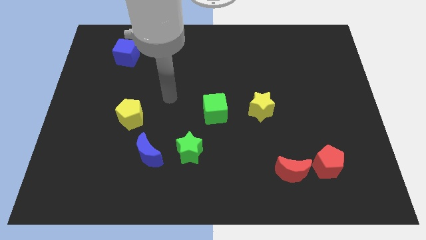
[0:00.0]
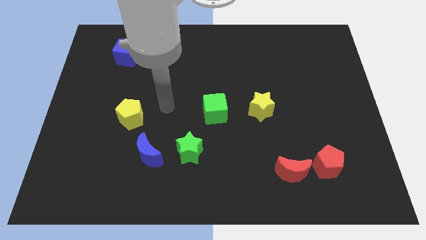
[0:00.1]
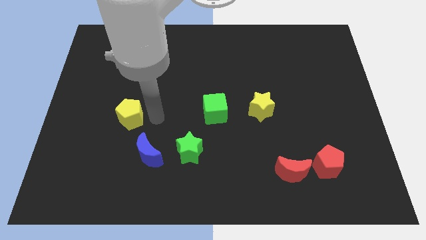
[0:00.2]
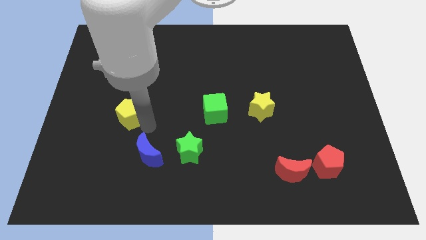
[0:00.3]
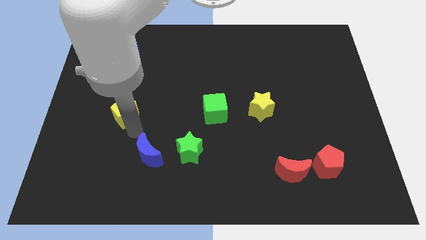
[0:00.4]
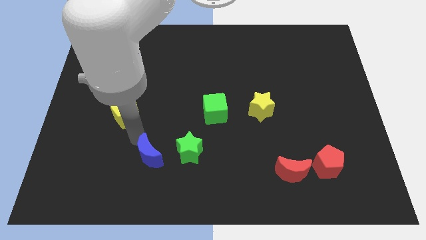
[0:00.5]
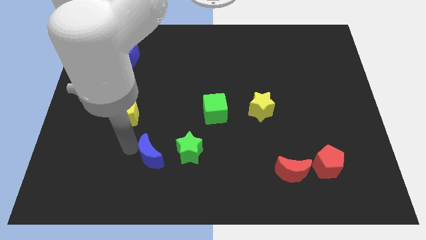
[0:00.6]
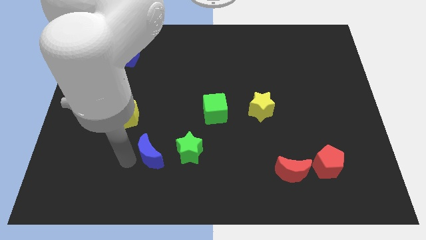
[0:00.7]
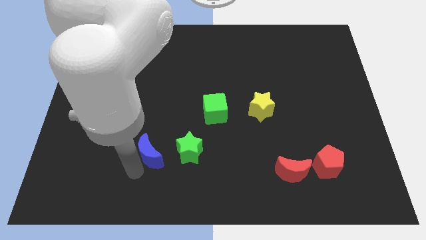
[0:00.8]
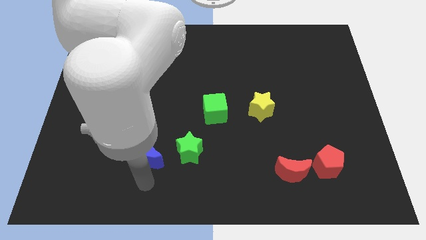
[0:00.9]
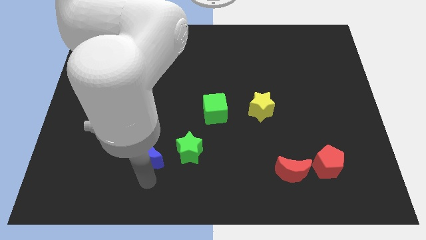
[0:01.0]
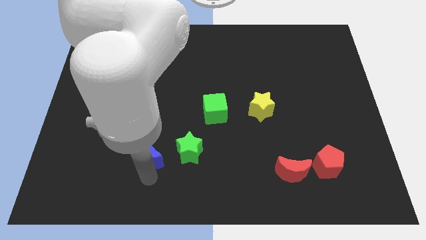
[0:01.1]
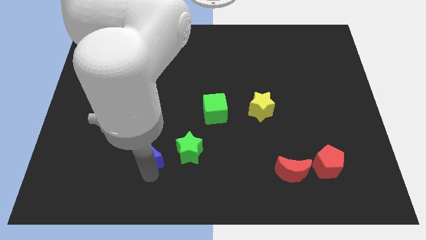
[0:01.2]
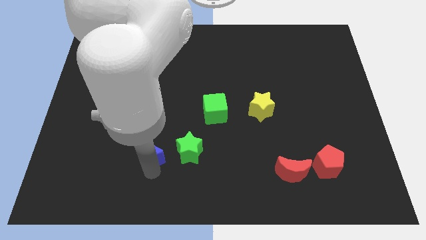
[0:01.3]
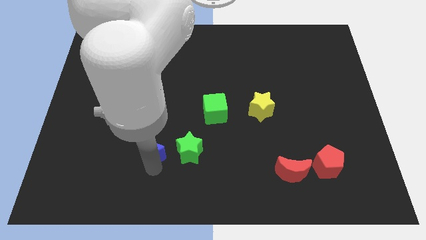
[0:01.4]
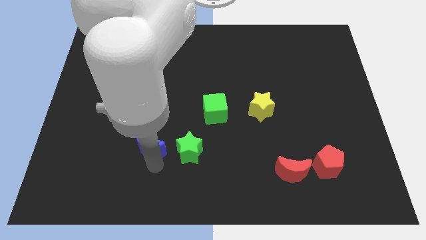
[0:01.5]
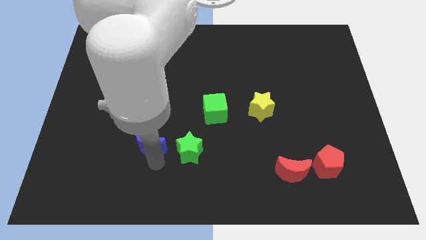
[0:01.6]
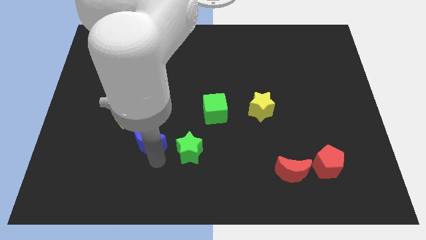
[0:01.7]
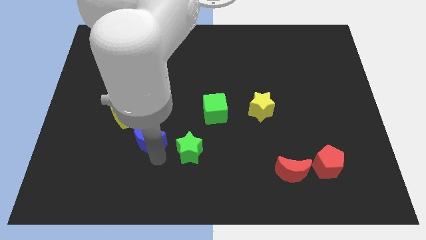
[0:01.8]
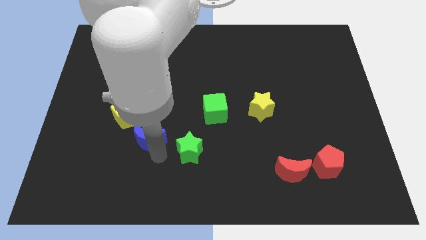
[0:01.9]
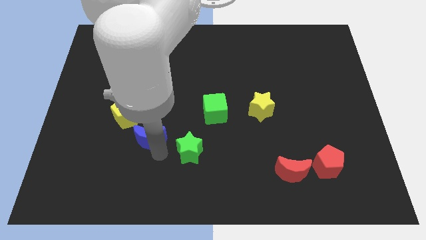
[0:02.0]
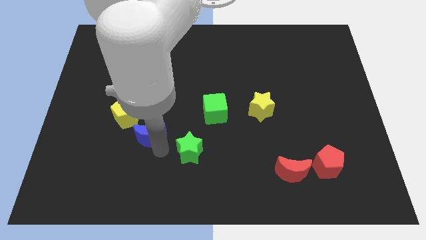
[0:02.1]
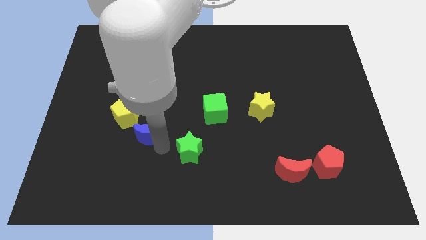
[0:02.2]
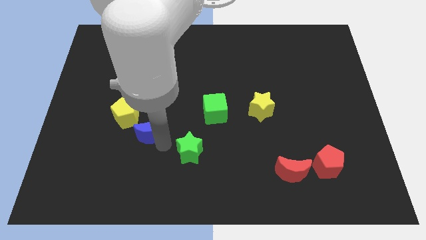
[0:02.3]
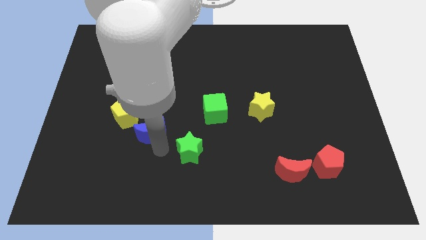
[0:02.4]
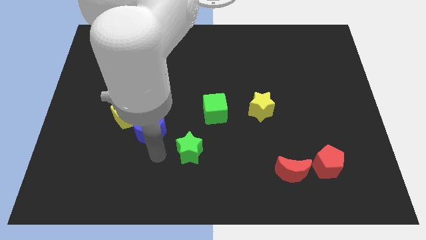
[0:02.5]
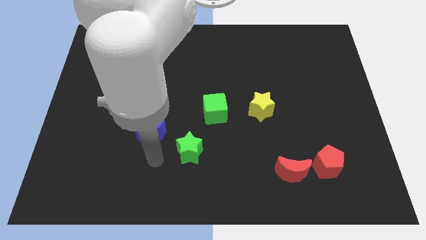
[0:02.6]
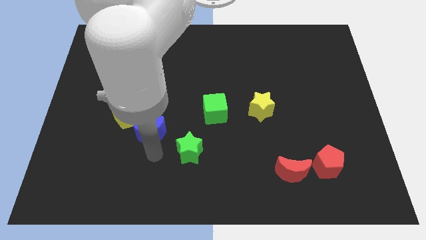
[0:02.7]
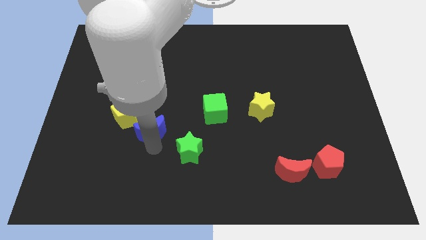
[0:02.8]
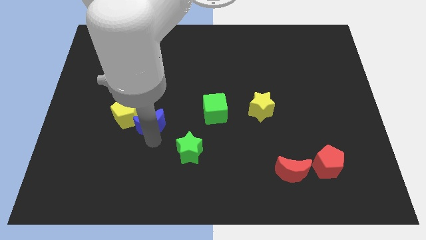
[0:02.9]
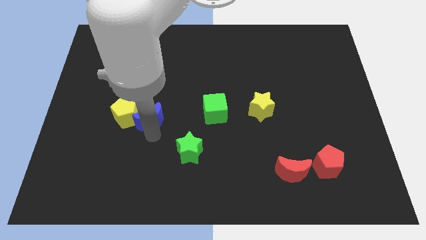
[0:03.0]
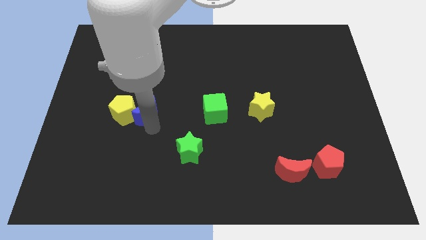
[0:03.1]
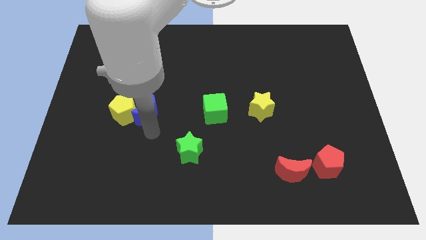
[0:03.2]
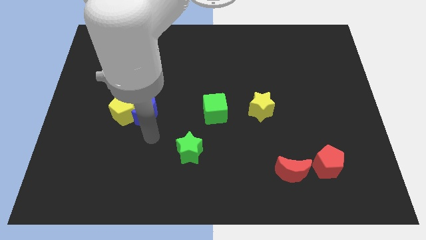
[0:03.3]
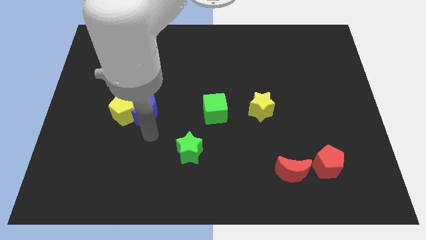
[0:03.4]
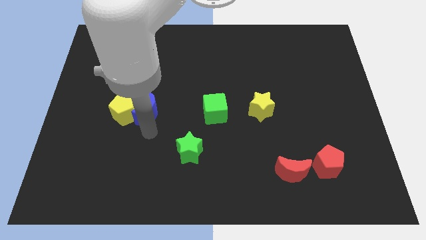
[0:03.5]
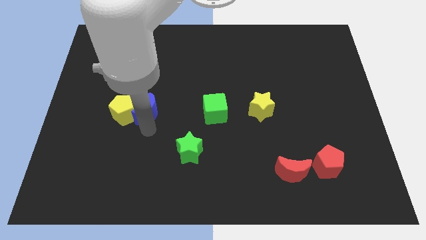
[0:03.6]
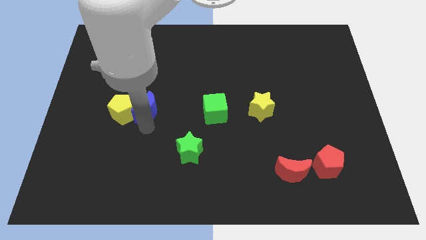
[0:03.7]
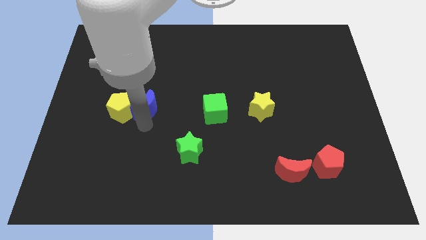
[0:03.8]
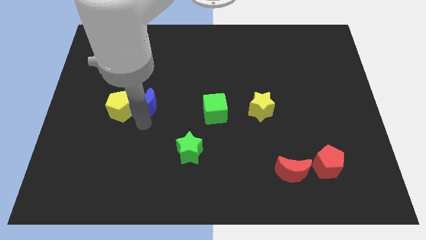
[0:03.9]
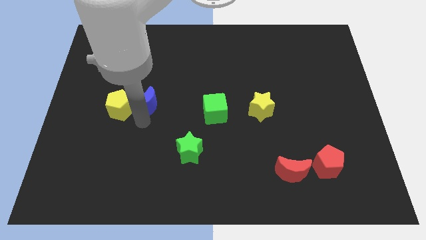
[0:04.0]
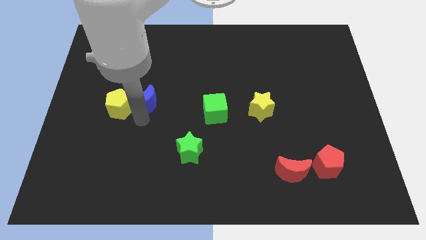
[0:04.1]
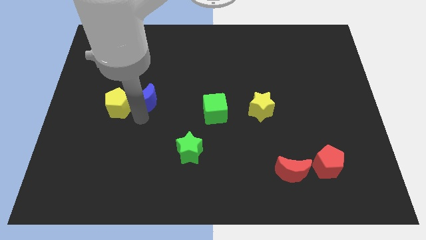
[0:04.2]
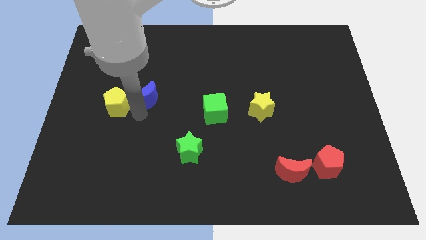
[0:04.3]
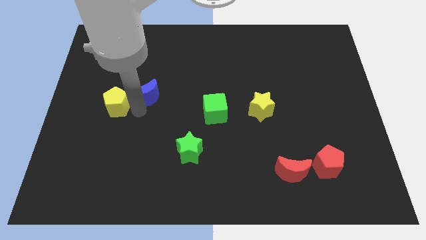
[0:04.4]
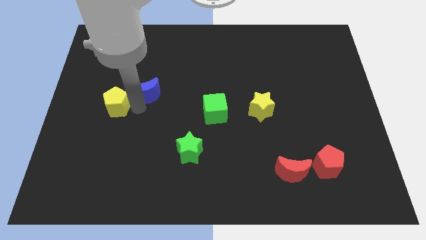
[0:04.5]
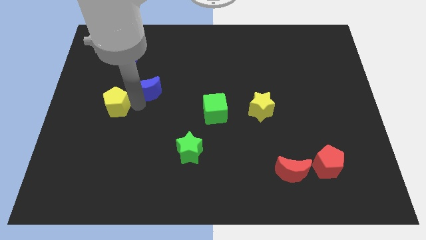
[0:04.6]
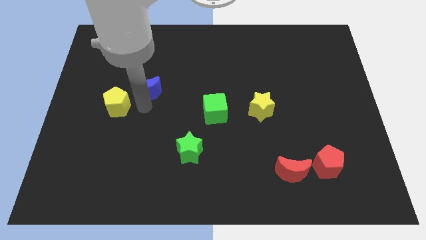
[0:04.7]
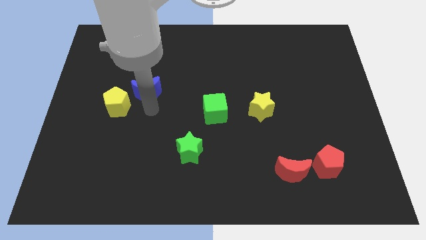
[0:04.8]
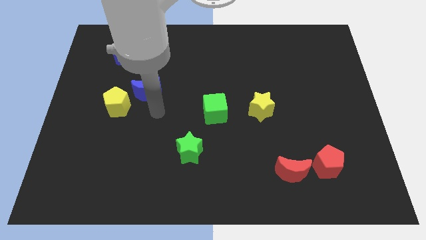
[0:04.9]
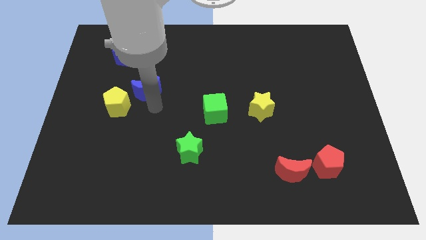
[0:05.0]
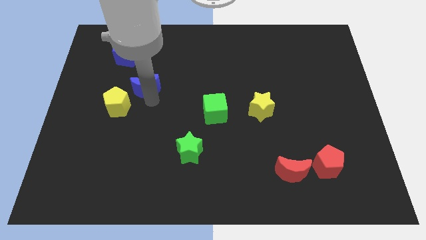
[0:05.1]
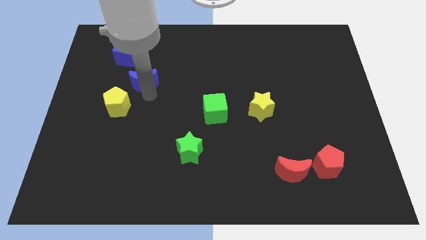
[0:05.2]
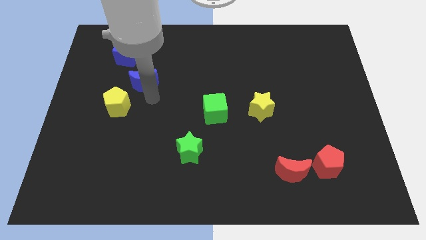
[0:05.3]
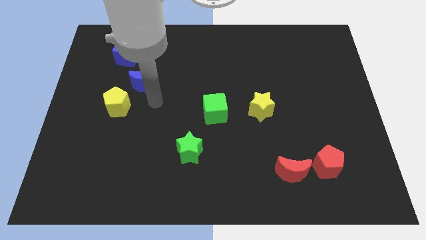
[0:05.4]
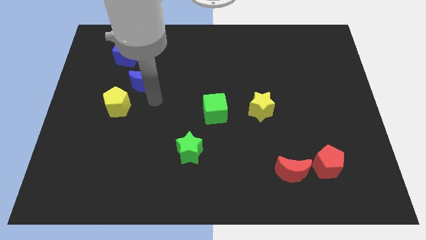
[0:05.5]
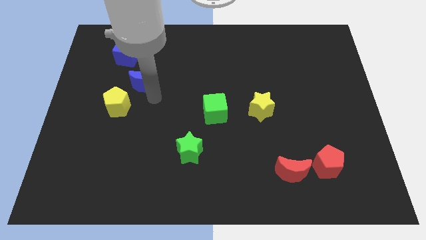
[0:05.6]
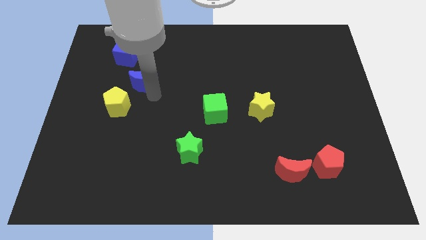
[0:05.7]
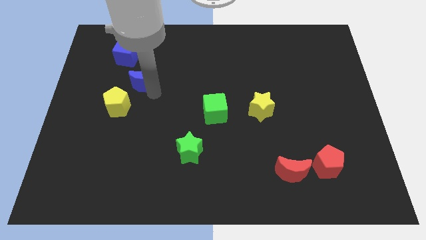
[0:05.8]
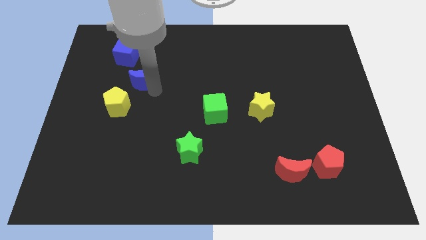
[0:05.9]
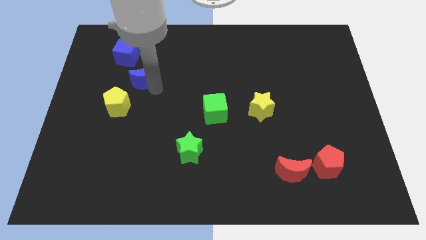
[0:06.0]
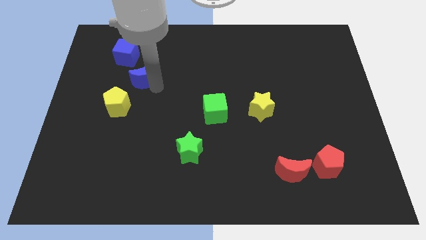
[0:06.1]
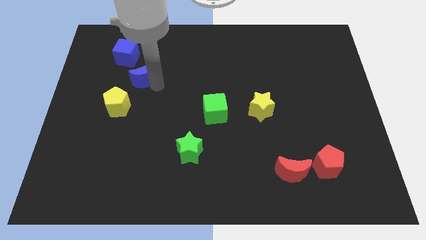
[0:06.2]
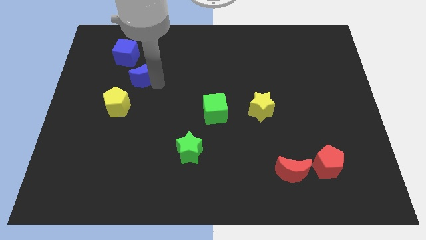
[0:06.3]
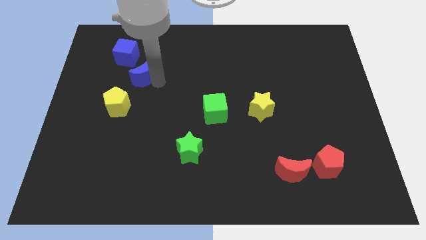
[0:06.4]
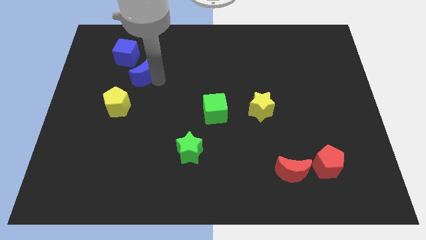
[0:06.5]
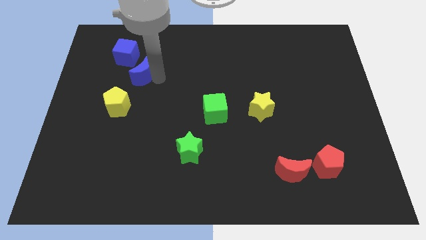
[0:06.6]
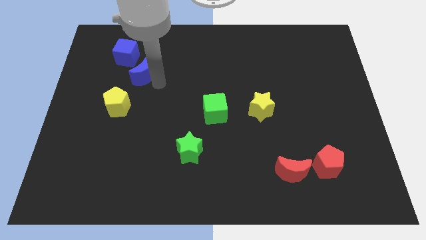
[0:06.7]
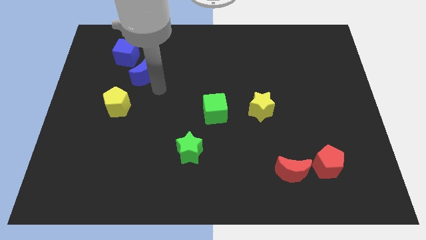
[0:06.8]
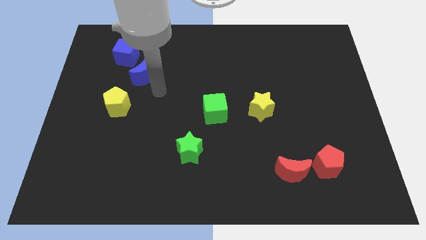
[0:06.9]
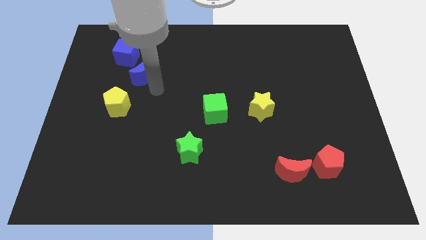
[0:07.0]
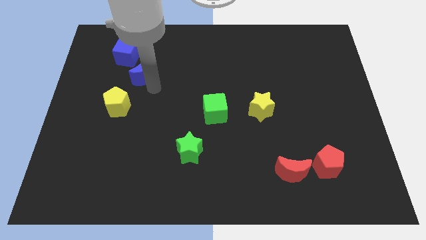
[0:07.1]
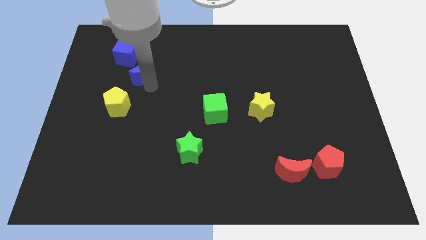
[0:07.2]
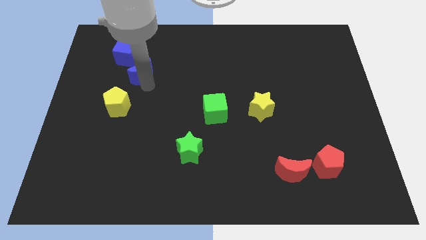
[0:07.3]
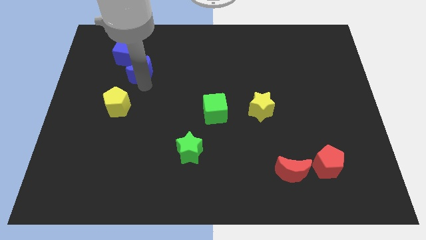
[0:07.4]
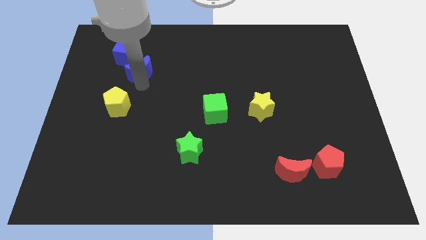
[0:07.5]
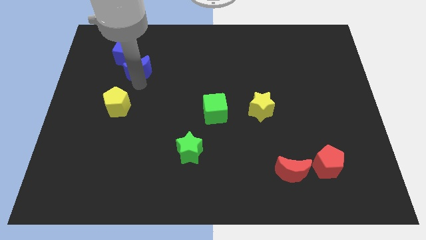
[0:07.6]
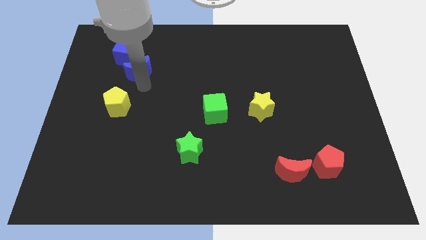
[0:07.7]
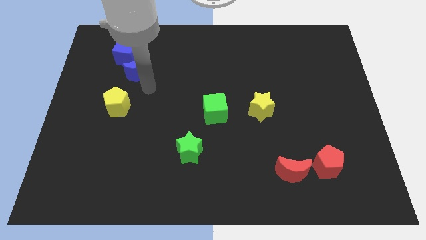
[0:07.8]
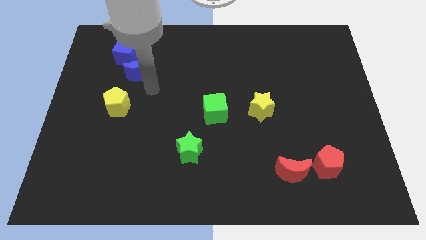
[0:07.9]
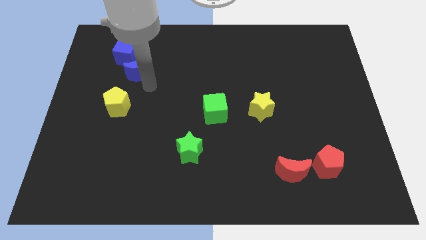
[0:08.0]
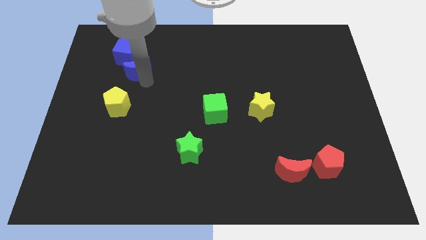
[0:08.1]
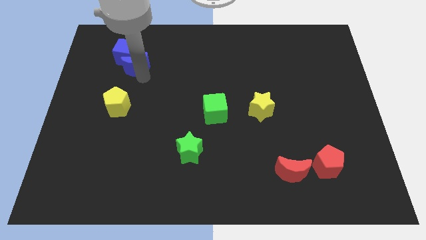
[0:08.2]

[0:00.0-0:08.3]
slide the blue moon next to the blue cube
